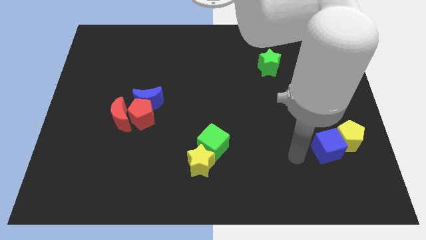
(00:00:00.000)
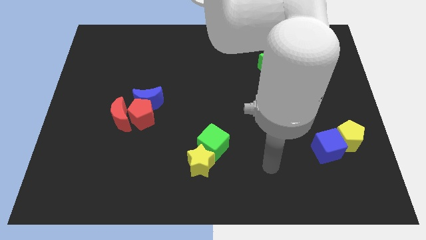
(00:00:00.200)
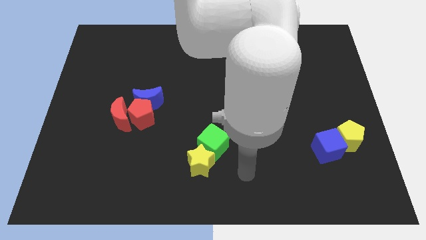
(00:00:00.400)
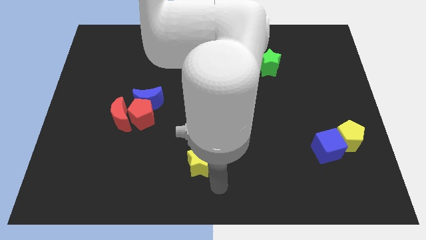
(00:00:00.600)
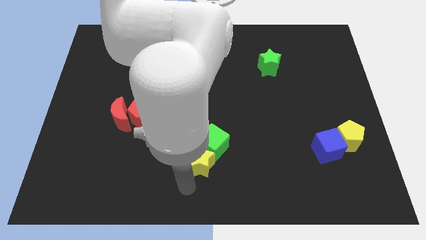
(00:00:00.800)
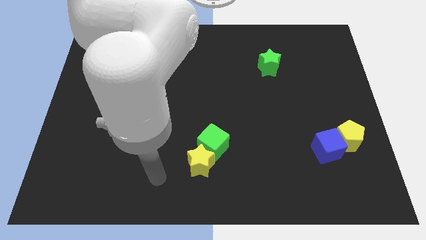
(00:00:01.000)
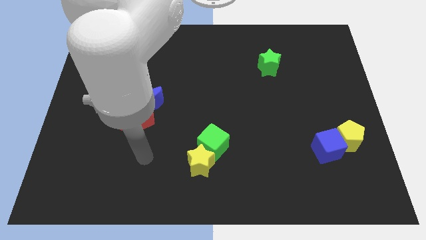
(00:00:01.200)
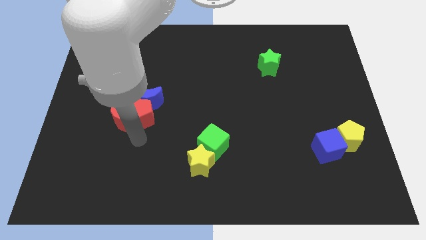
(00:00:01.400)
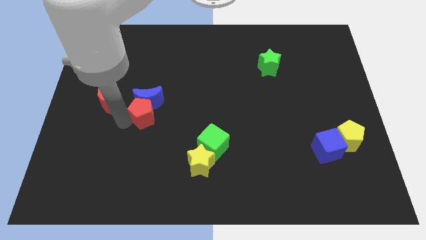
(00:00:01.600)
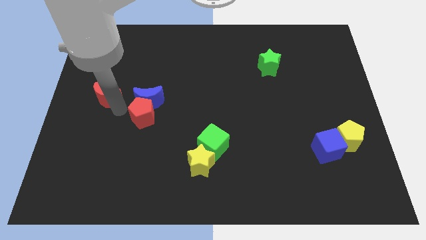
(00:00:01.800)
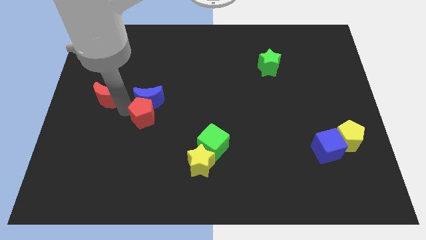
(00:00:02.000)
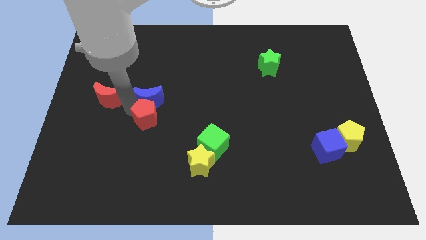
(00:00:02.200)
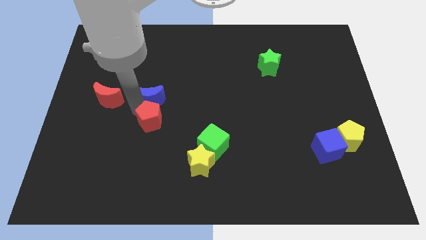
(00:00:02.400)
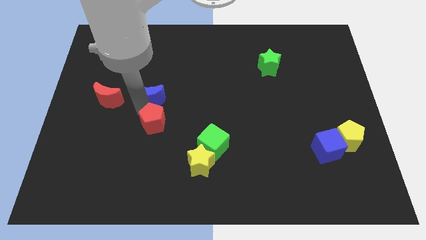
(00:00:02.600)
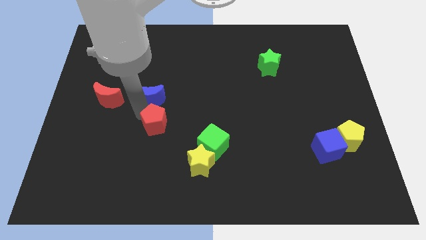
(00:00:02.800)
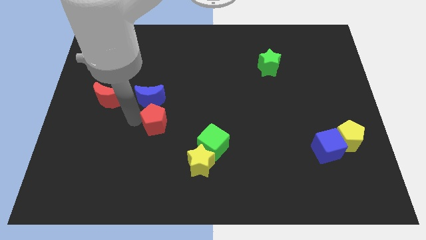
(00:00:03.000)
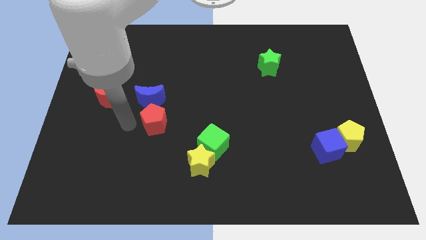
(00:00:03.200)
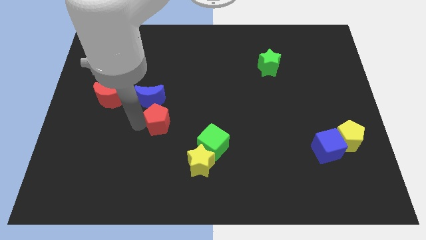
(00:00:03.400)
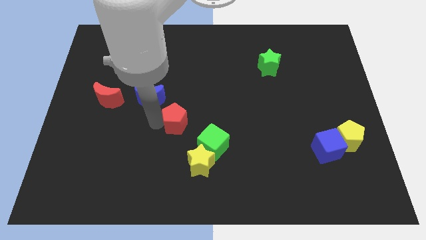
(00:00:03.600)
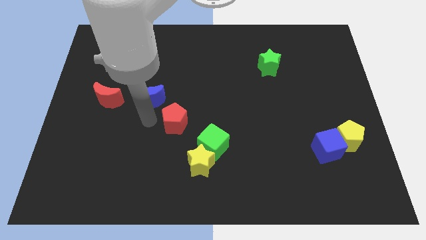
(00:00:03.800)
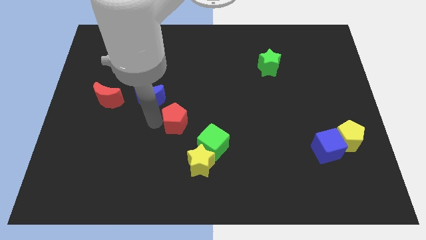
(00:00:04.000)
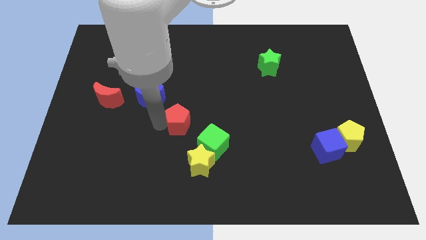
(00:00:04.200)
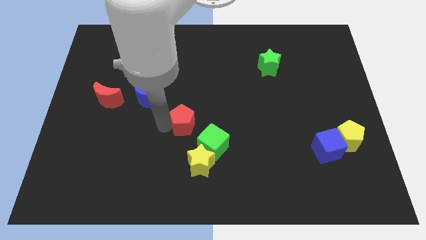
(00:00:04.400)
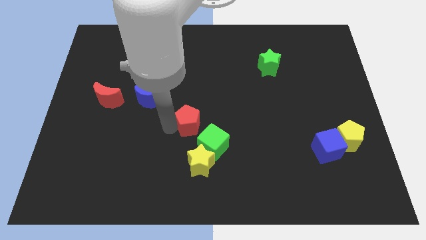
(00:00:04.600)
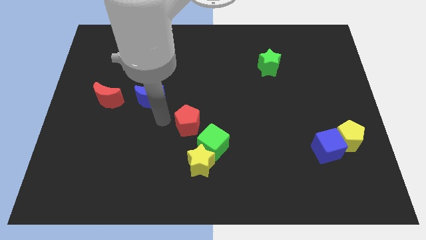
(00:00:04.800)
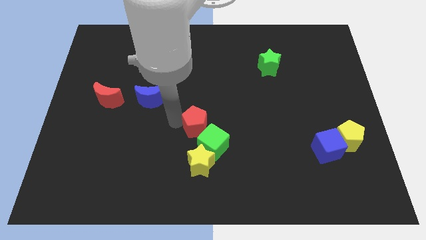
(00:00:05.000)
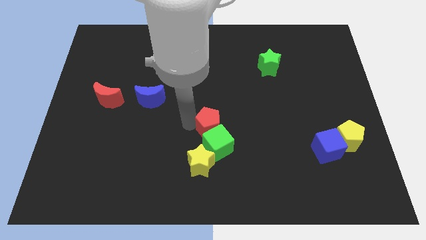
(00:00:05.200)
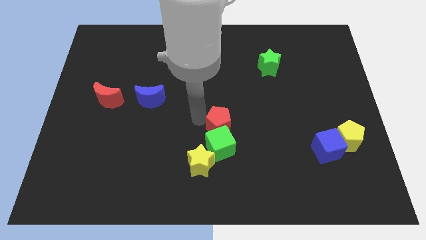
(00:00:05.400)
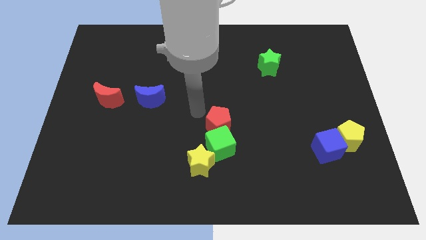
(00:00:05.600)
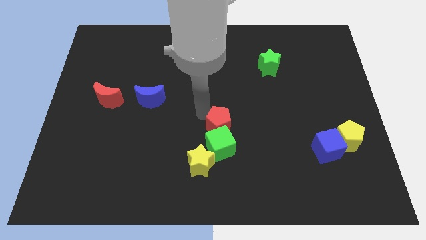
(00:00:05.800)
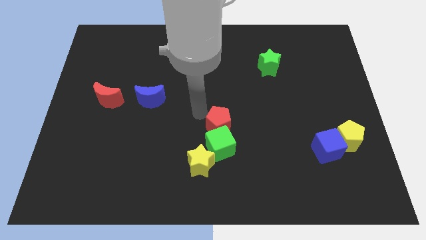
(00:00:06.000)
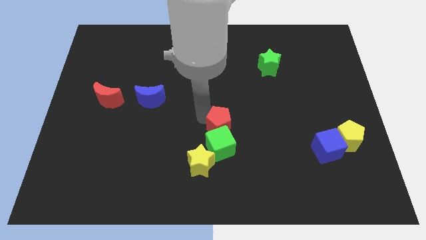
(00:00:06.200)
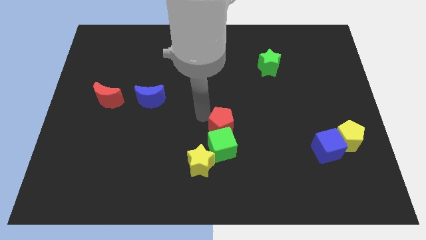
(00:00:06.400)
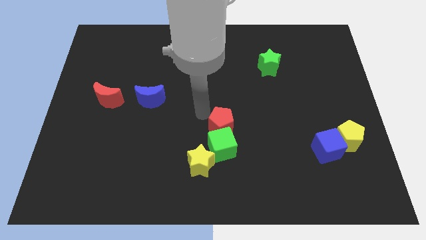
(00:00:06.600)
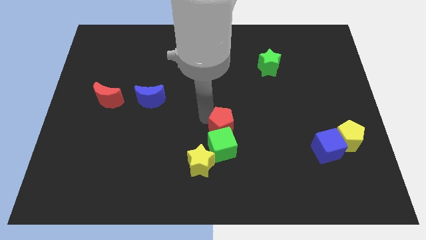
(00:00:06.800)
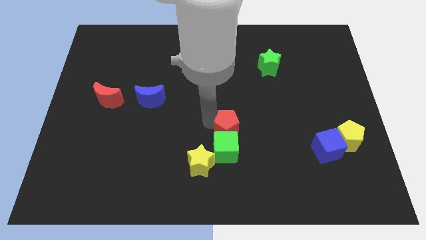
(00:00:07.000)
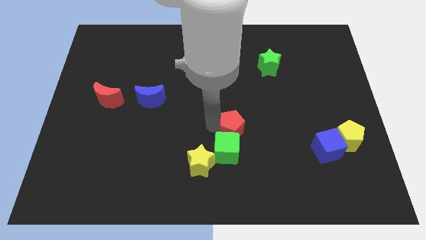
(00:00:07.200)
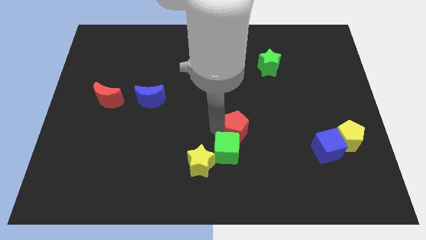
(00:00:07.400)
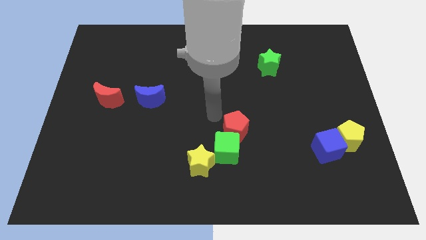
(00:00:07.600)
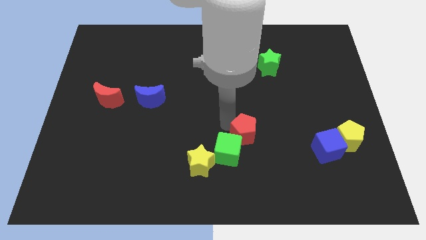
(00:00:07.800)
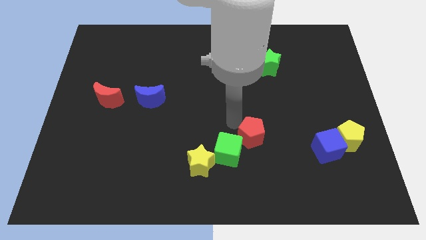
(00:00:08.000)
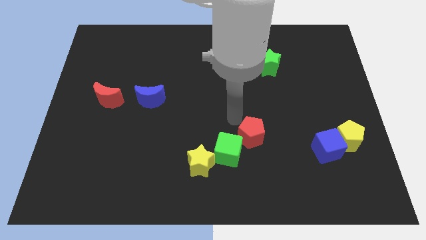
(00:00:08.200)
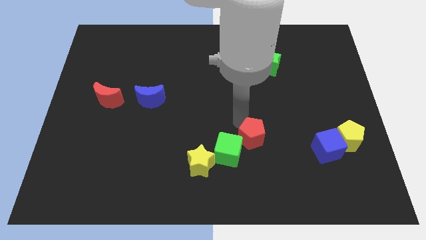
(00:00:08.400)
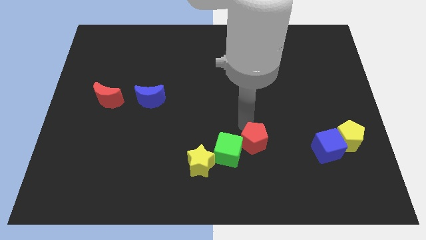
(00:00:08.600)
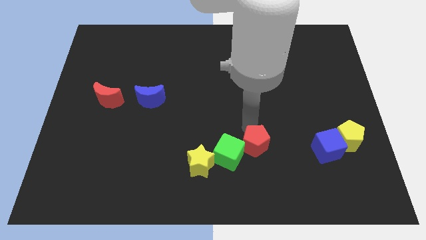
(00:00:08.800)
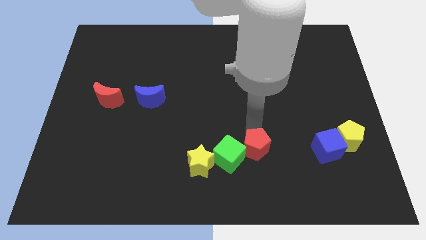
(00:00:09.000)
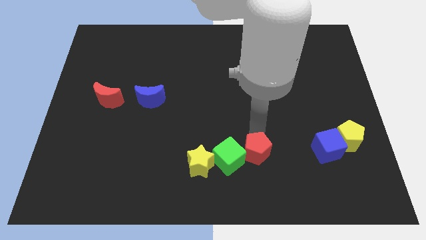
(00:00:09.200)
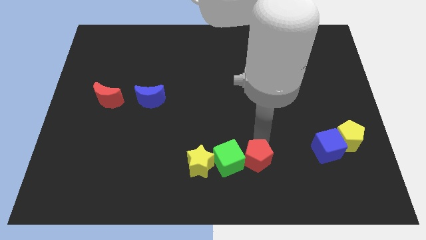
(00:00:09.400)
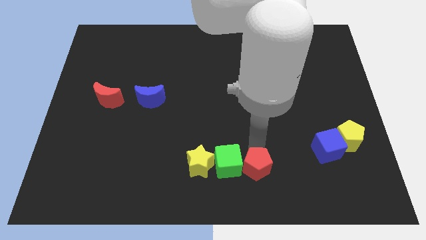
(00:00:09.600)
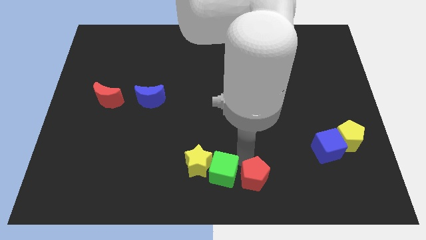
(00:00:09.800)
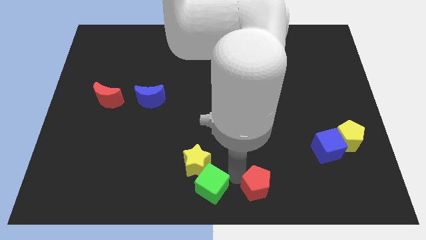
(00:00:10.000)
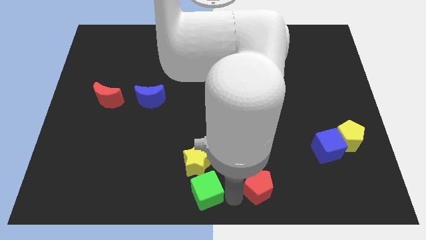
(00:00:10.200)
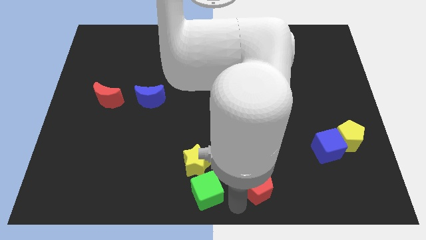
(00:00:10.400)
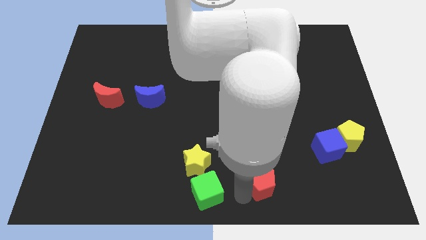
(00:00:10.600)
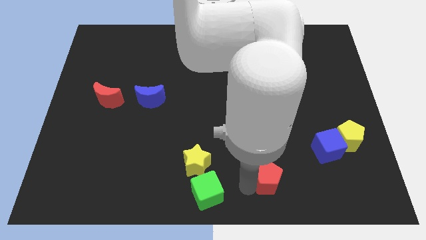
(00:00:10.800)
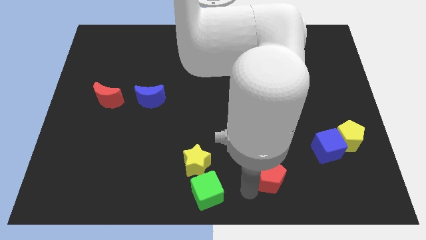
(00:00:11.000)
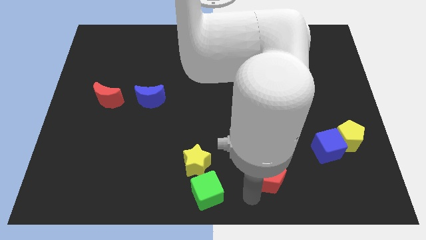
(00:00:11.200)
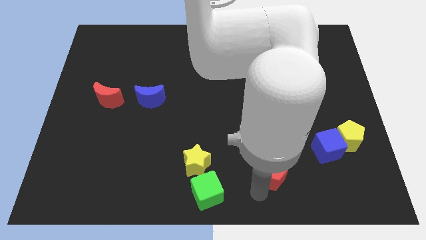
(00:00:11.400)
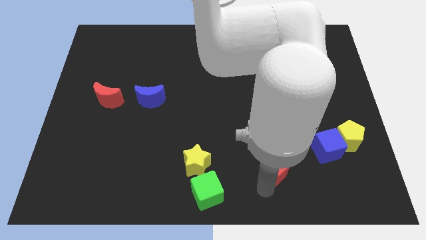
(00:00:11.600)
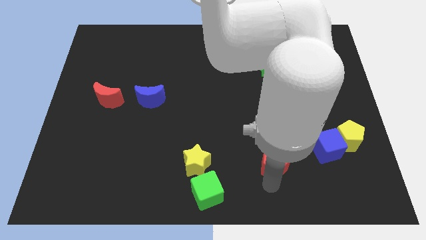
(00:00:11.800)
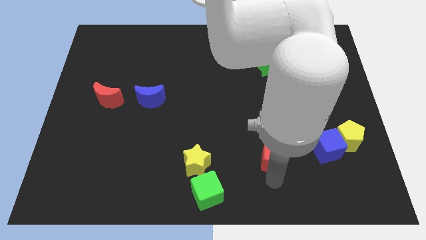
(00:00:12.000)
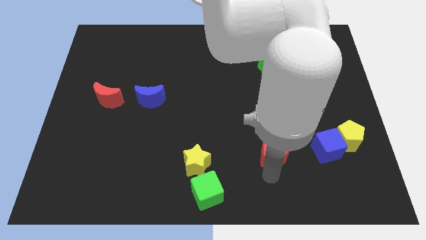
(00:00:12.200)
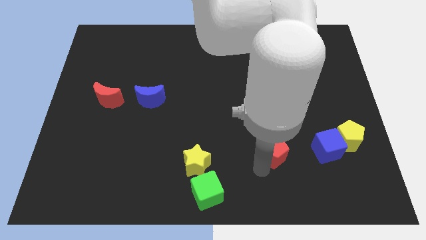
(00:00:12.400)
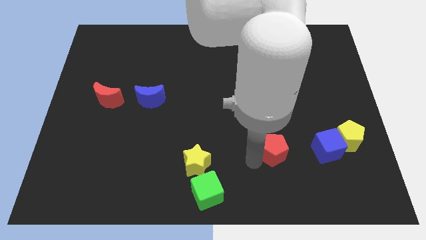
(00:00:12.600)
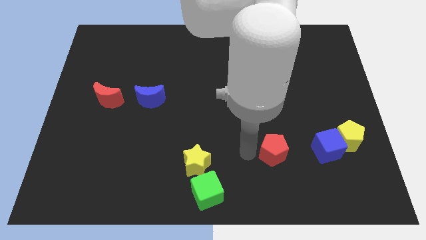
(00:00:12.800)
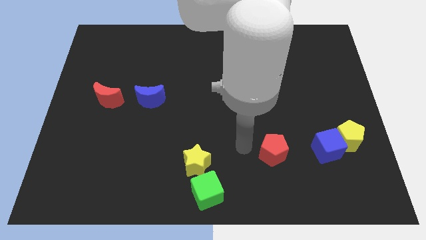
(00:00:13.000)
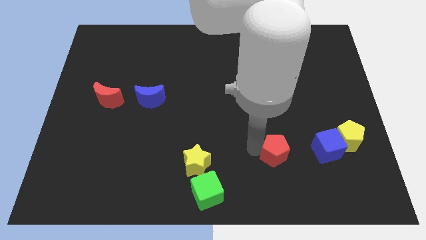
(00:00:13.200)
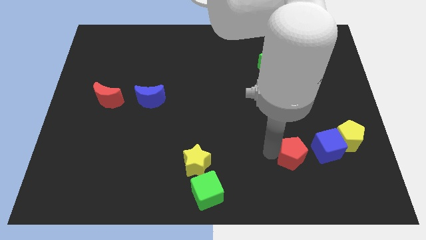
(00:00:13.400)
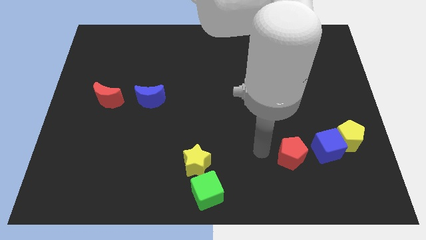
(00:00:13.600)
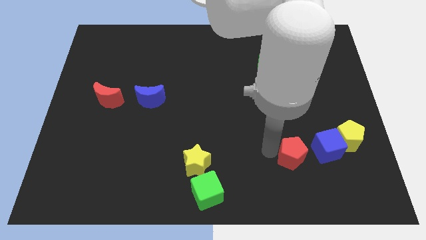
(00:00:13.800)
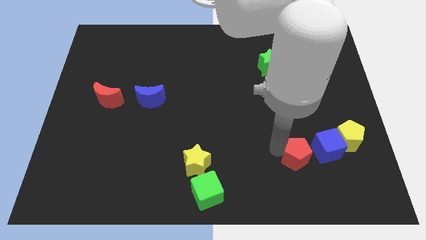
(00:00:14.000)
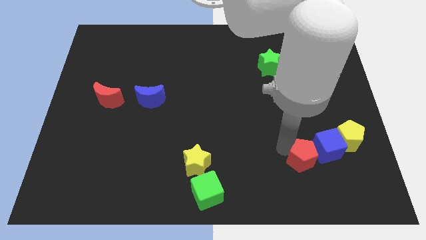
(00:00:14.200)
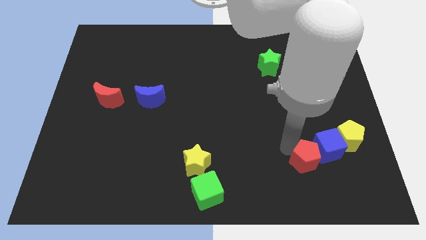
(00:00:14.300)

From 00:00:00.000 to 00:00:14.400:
move the red pentagon to the bottom left side of the yellow pentagon
